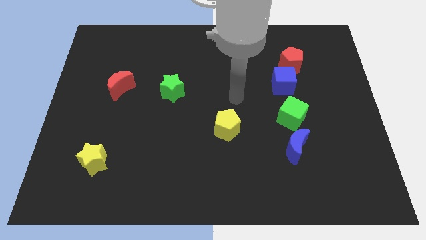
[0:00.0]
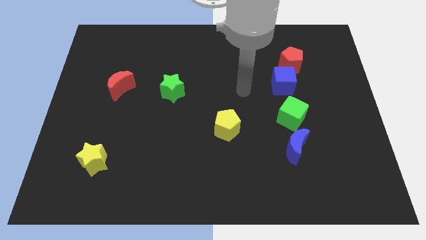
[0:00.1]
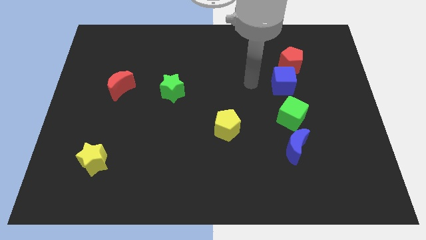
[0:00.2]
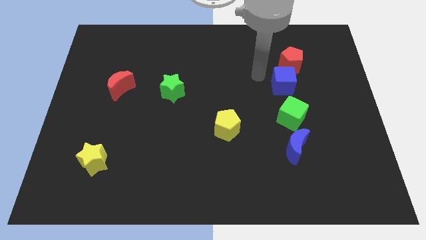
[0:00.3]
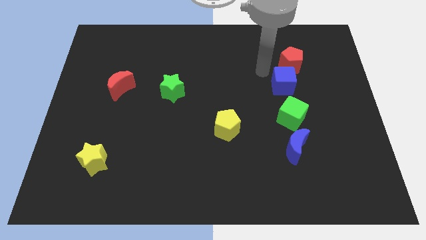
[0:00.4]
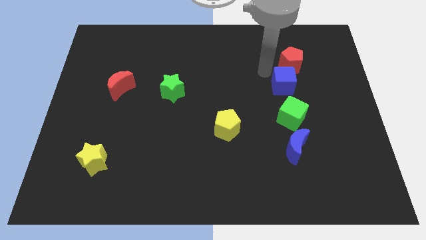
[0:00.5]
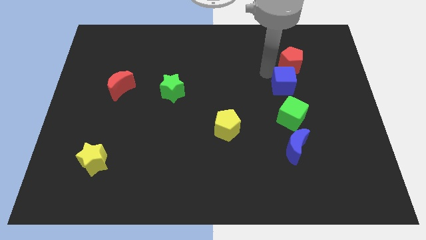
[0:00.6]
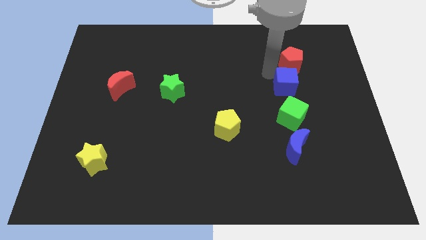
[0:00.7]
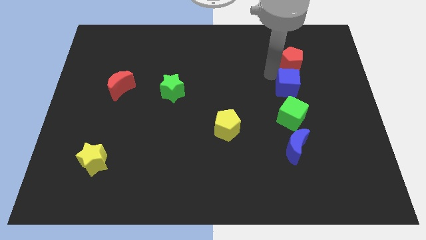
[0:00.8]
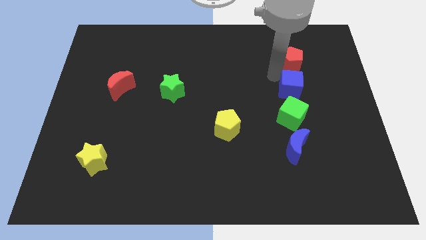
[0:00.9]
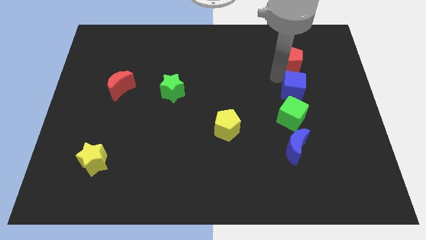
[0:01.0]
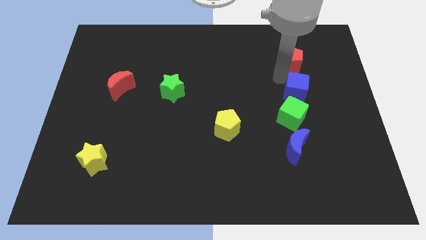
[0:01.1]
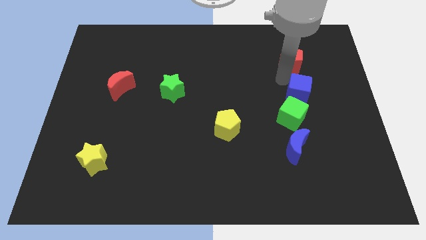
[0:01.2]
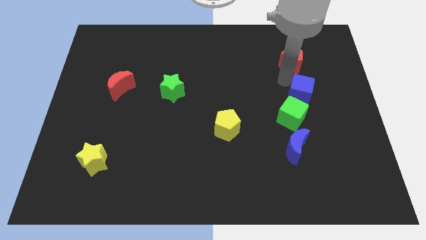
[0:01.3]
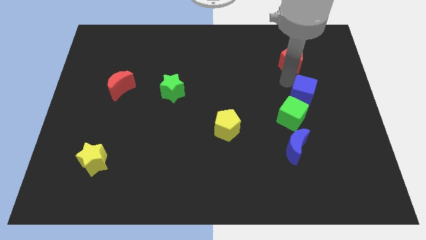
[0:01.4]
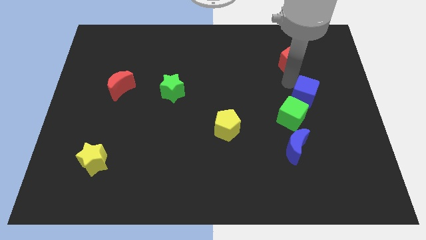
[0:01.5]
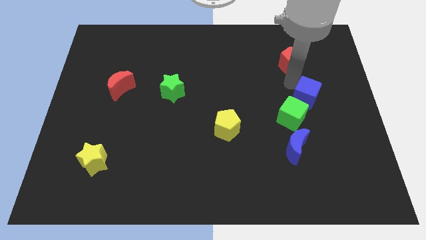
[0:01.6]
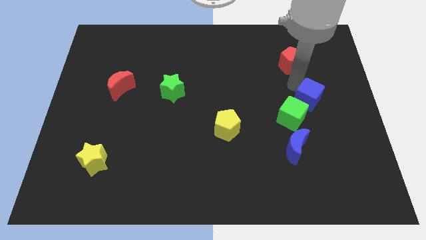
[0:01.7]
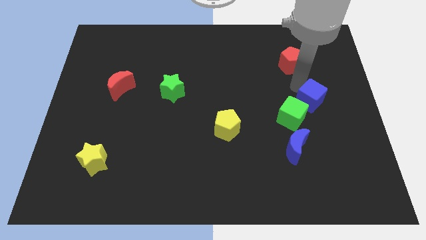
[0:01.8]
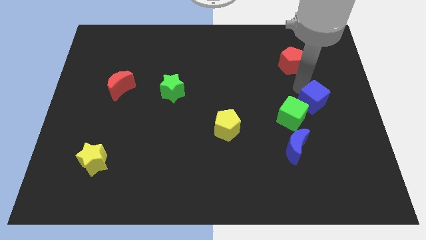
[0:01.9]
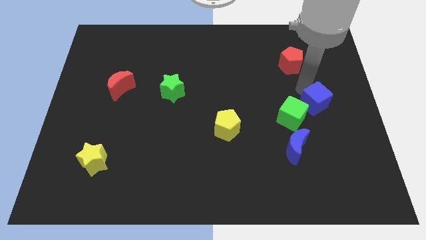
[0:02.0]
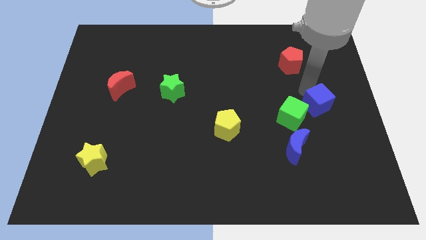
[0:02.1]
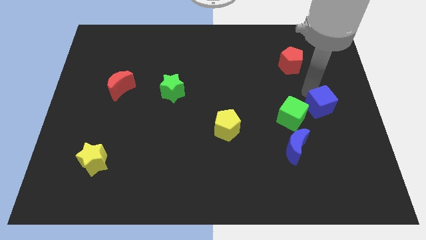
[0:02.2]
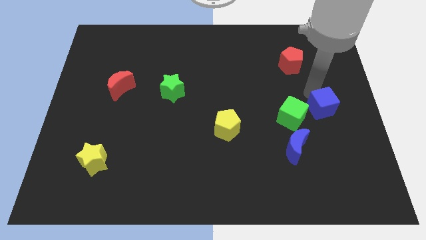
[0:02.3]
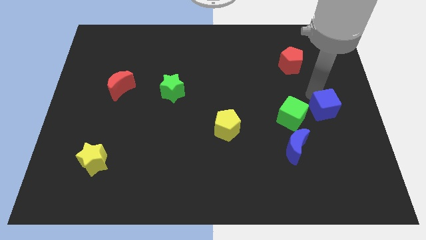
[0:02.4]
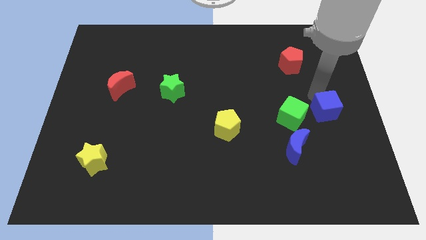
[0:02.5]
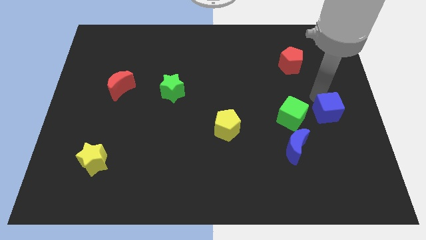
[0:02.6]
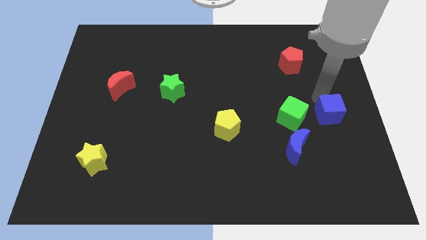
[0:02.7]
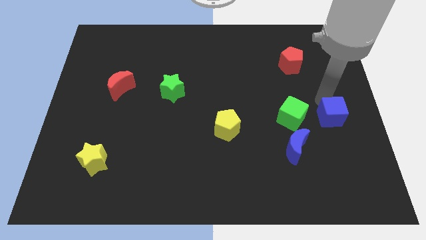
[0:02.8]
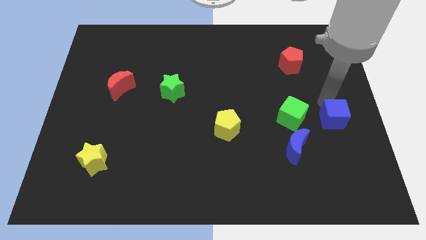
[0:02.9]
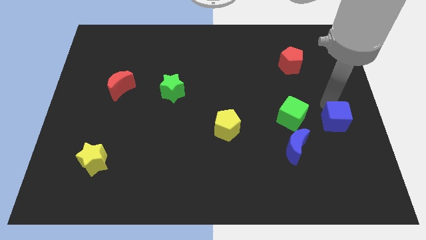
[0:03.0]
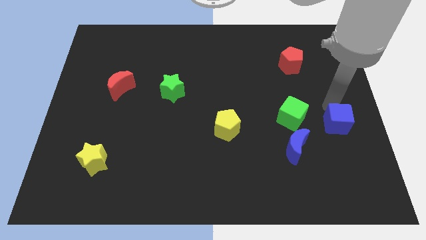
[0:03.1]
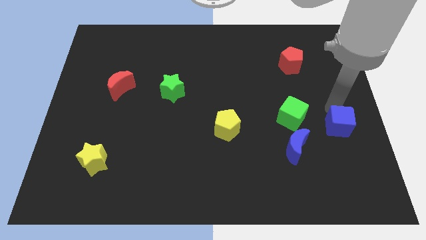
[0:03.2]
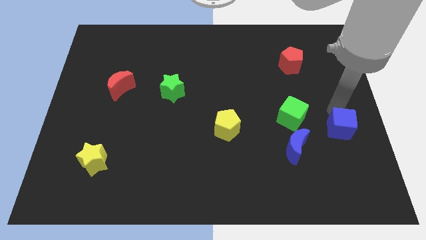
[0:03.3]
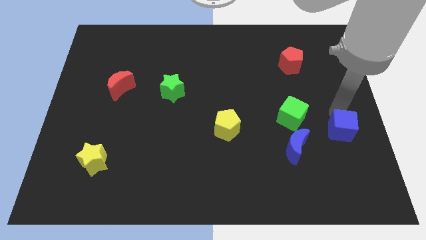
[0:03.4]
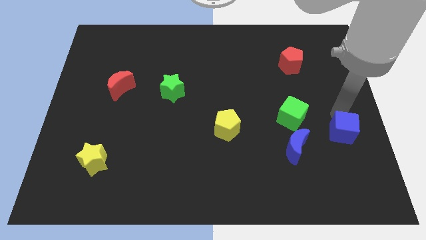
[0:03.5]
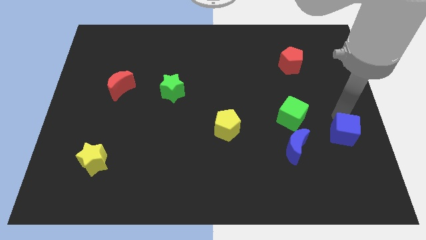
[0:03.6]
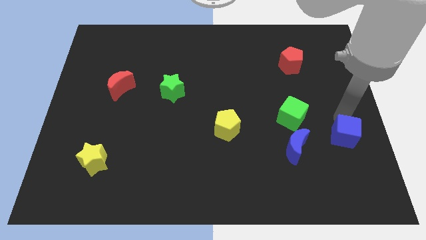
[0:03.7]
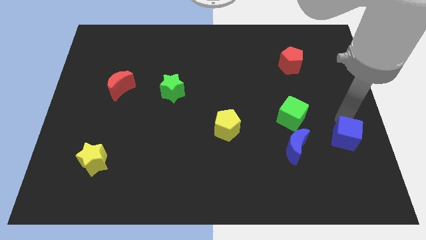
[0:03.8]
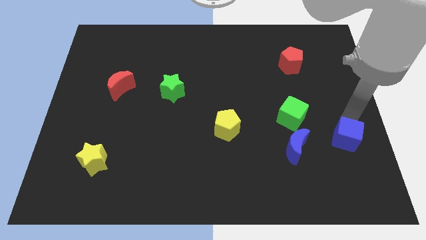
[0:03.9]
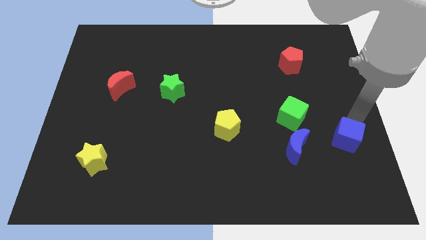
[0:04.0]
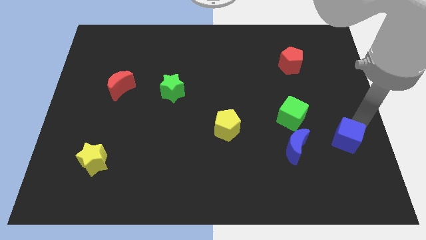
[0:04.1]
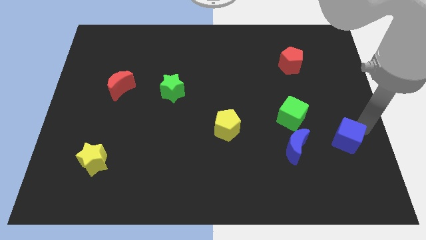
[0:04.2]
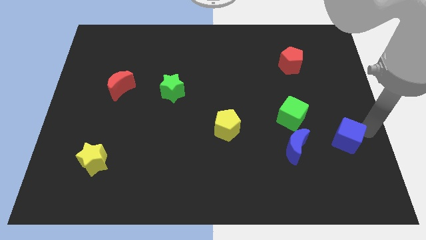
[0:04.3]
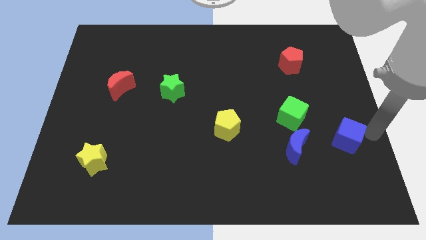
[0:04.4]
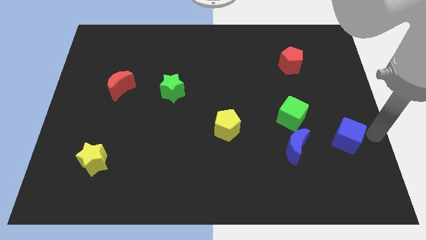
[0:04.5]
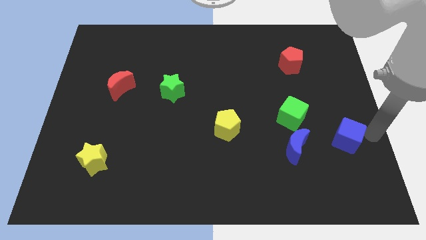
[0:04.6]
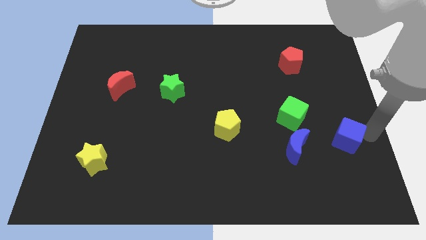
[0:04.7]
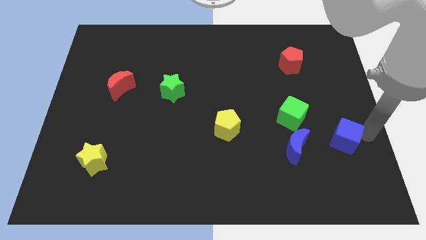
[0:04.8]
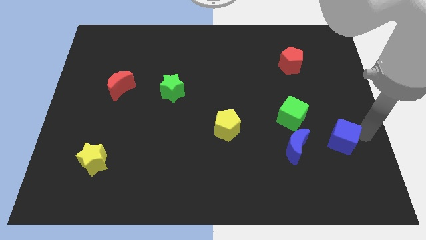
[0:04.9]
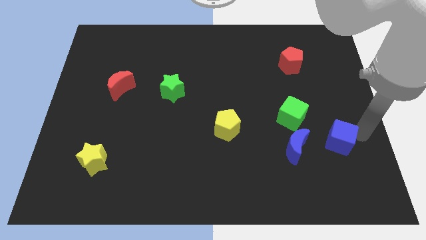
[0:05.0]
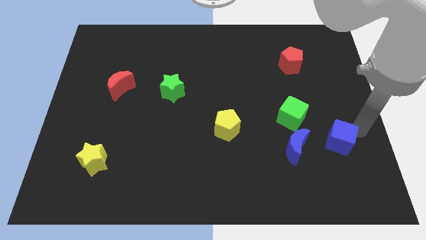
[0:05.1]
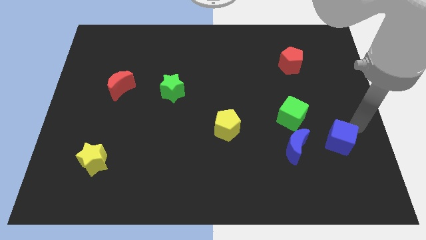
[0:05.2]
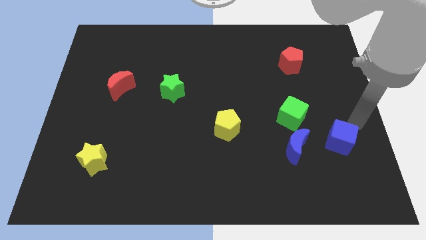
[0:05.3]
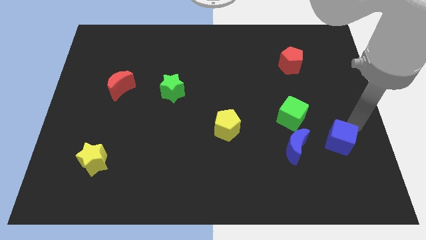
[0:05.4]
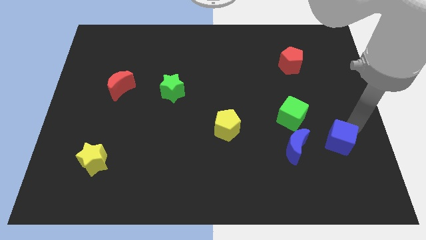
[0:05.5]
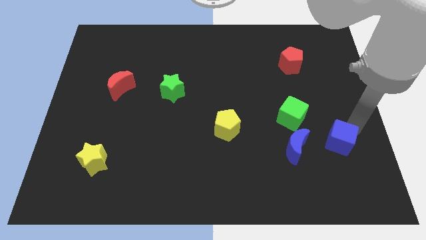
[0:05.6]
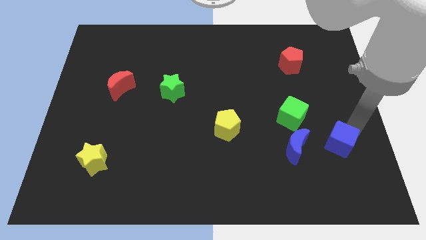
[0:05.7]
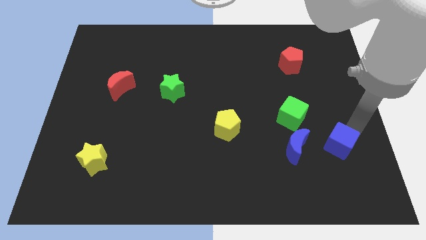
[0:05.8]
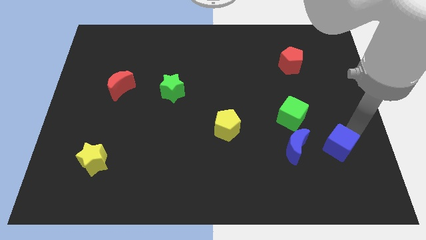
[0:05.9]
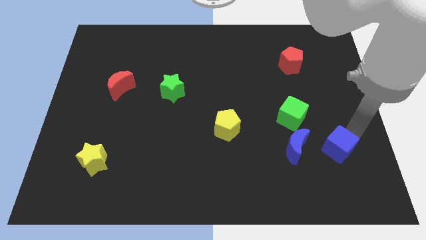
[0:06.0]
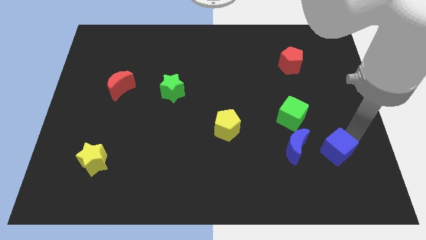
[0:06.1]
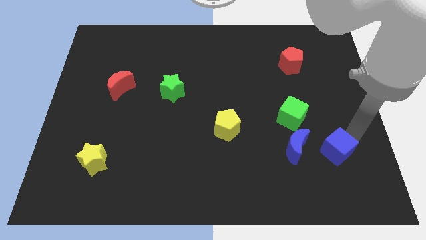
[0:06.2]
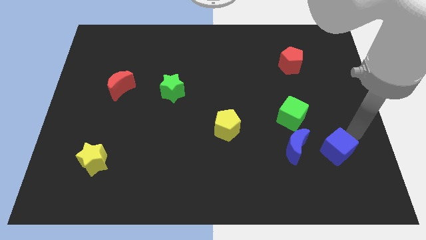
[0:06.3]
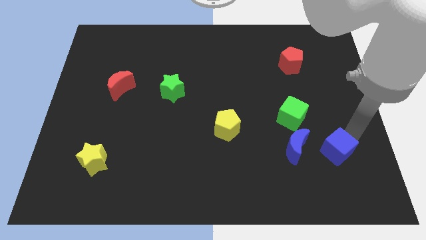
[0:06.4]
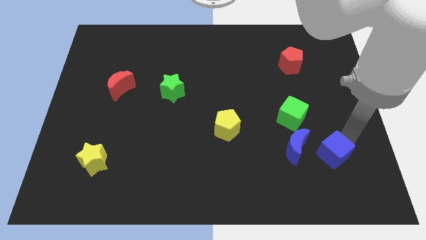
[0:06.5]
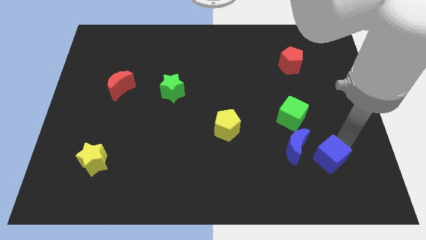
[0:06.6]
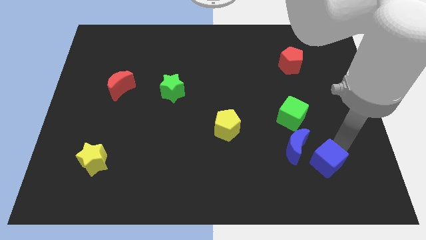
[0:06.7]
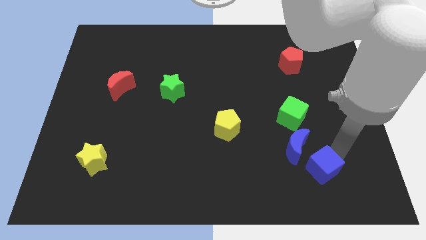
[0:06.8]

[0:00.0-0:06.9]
slide the blue cube to the bottom side of the green cube

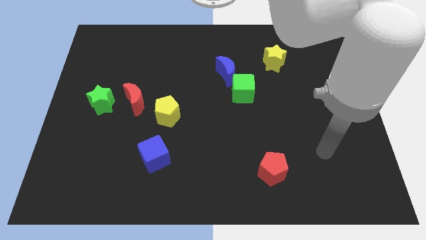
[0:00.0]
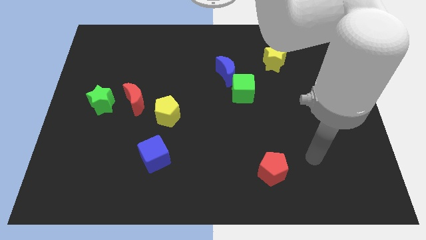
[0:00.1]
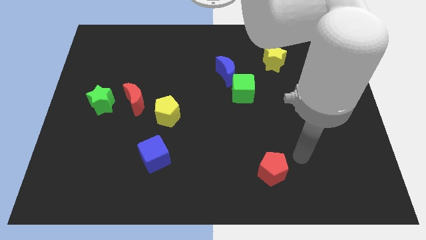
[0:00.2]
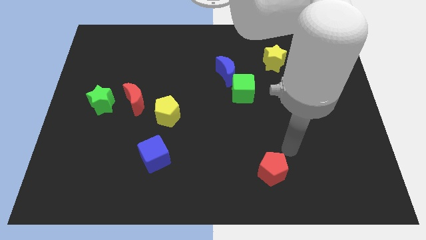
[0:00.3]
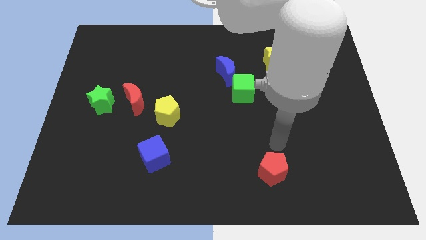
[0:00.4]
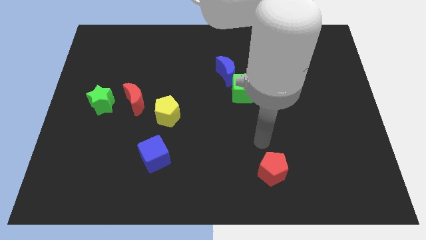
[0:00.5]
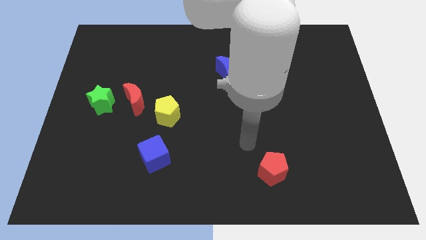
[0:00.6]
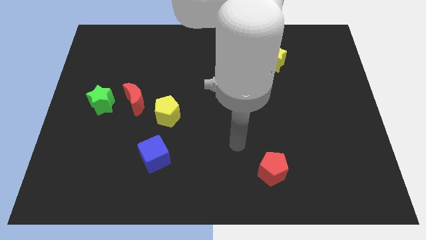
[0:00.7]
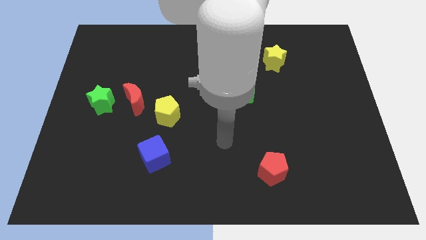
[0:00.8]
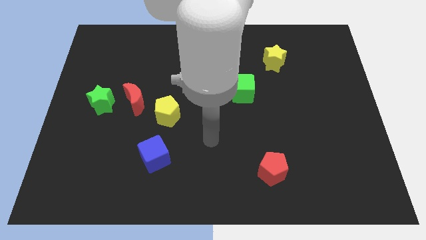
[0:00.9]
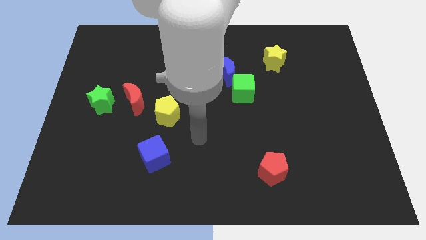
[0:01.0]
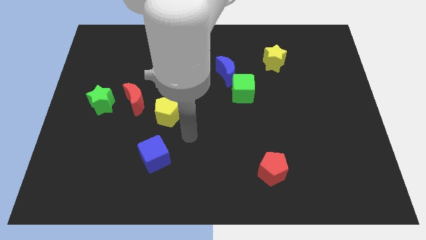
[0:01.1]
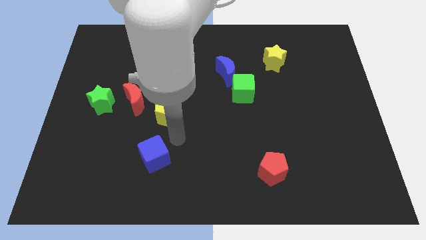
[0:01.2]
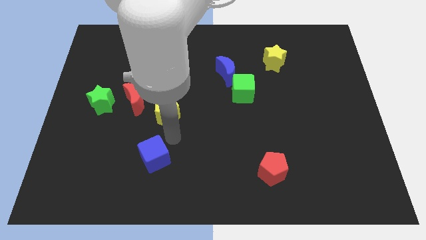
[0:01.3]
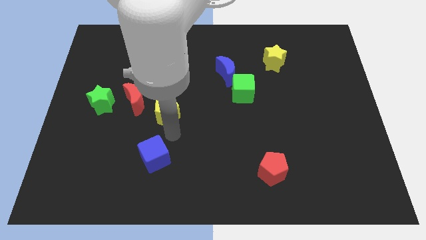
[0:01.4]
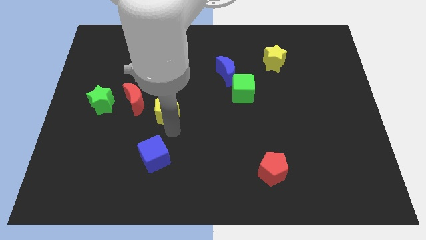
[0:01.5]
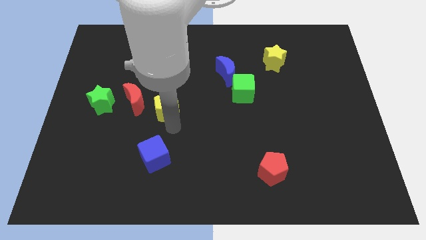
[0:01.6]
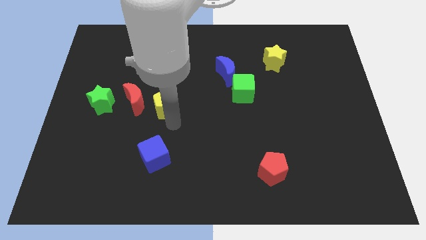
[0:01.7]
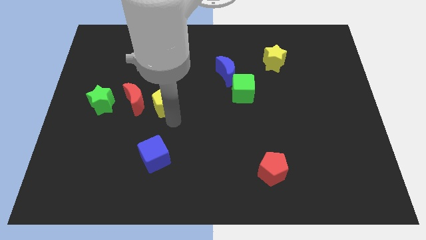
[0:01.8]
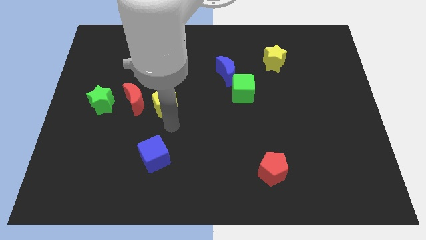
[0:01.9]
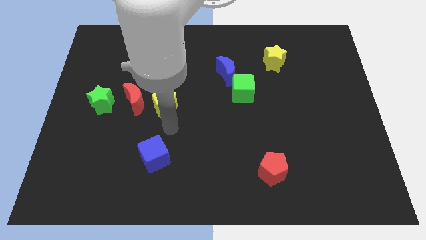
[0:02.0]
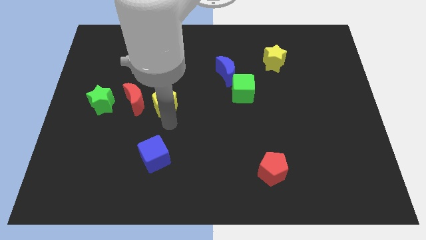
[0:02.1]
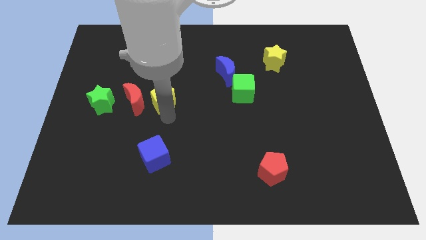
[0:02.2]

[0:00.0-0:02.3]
push the yellow pentagon to the top right of the red moon
